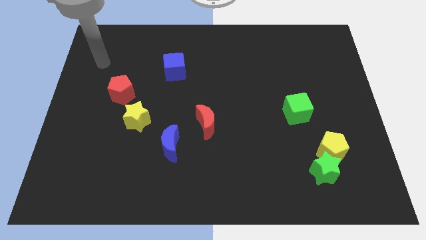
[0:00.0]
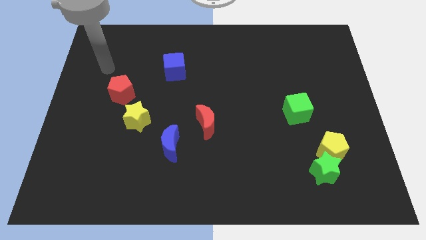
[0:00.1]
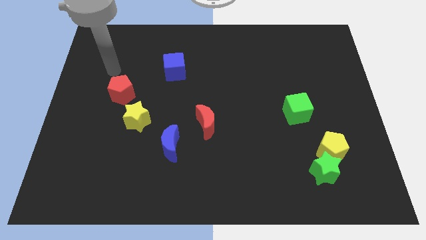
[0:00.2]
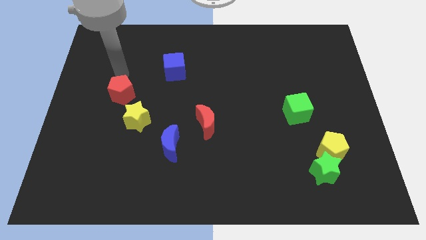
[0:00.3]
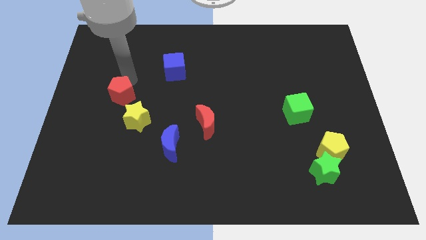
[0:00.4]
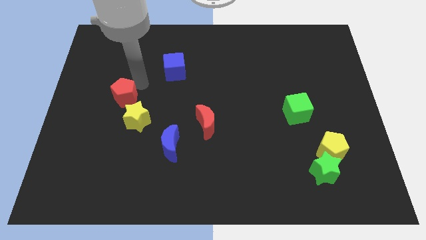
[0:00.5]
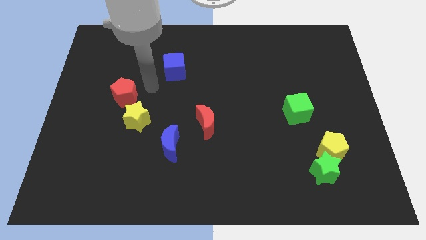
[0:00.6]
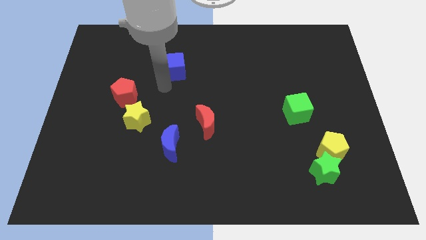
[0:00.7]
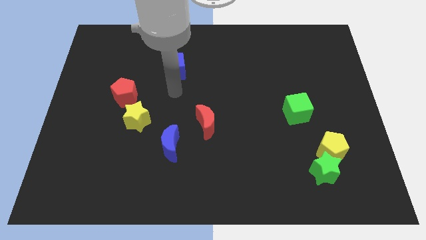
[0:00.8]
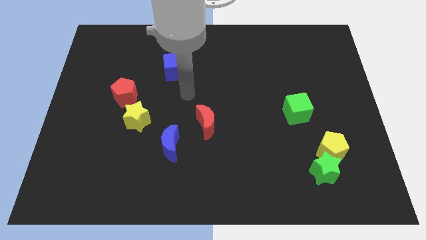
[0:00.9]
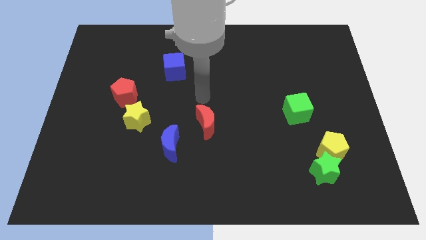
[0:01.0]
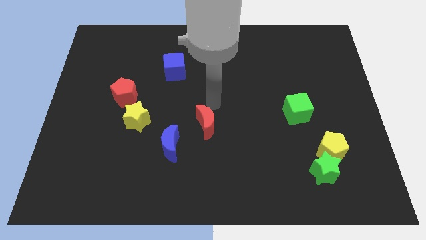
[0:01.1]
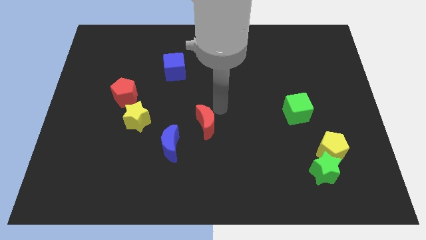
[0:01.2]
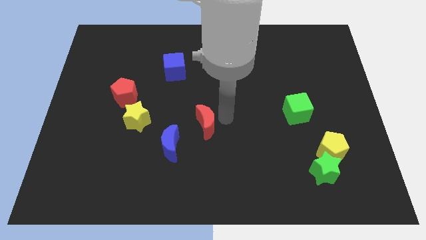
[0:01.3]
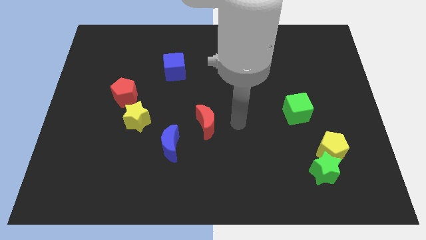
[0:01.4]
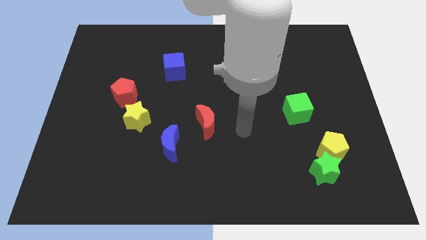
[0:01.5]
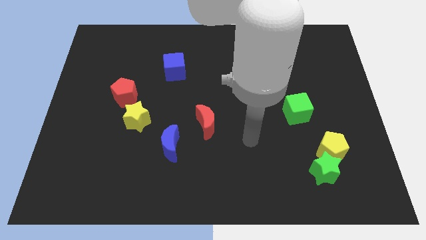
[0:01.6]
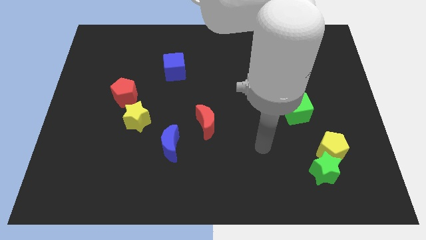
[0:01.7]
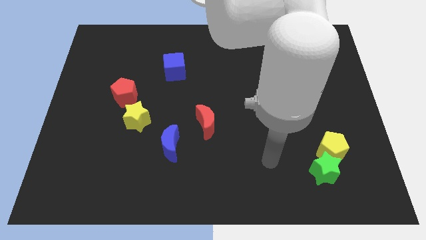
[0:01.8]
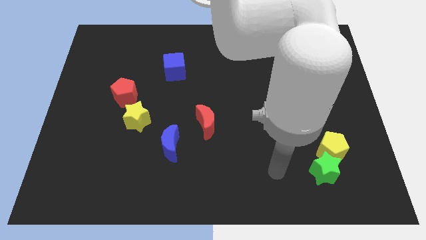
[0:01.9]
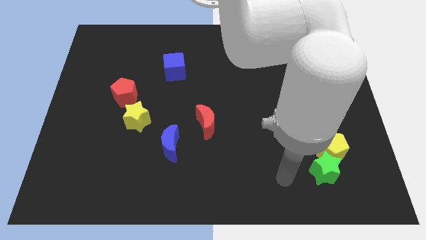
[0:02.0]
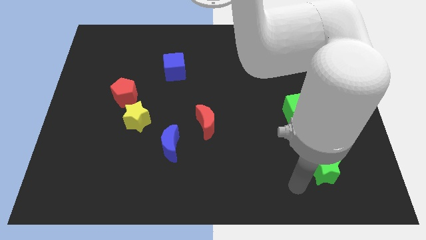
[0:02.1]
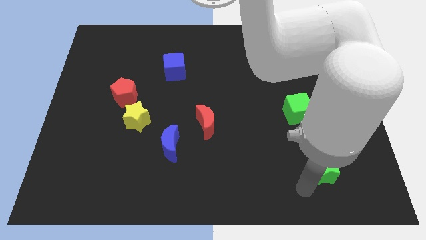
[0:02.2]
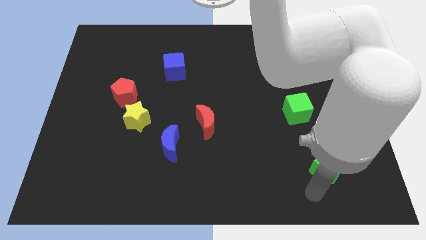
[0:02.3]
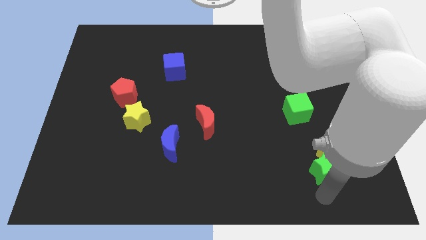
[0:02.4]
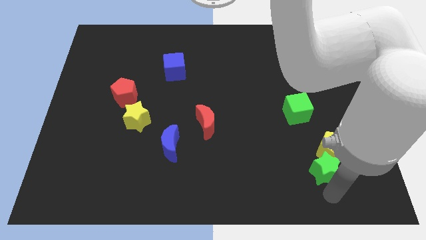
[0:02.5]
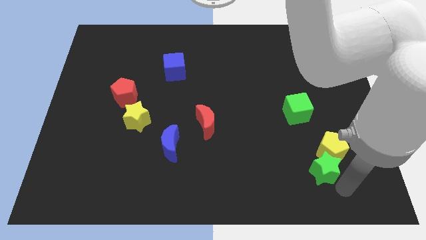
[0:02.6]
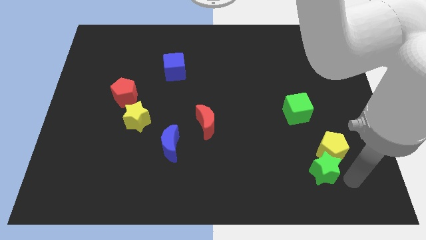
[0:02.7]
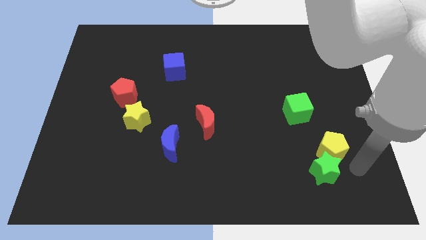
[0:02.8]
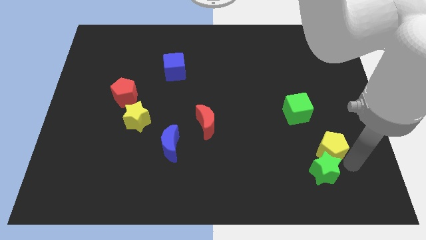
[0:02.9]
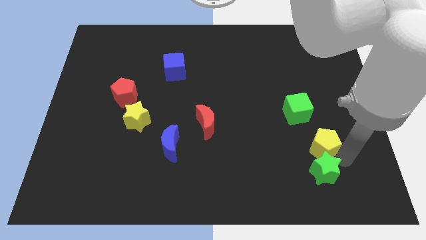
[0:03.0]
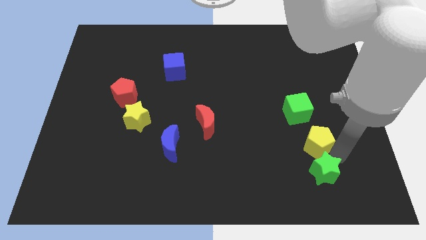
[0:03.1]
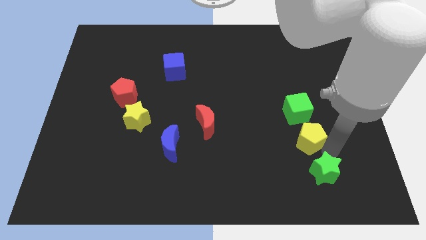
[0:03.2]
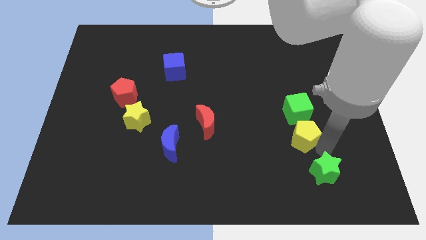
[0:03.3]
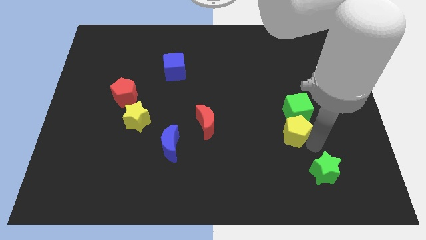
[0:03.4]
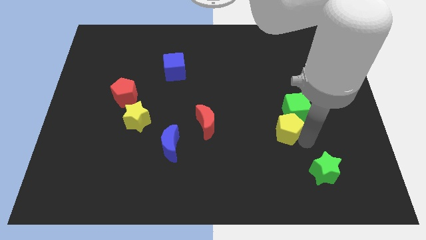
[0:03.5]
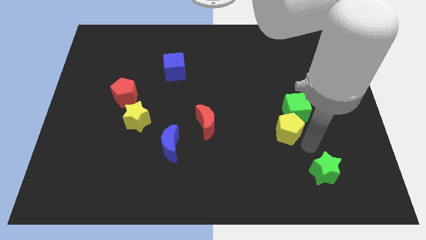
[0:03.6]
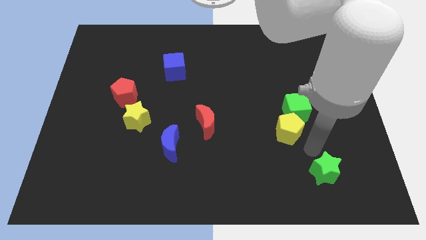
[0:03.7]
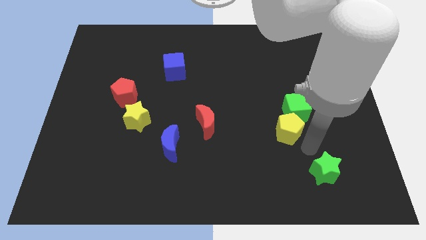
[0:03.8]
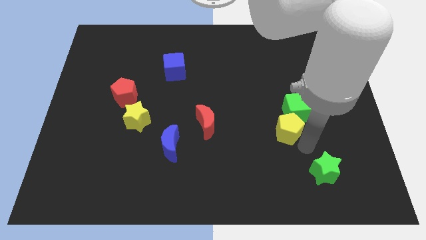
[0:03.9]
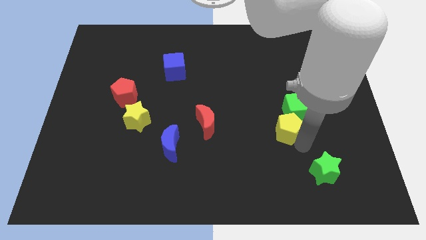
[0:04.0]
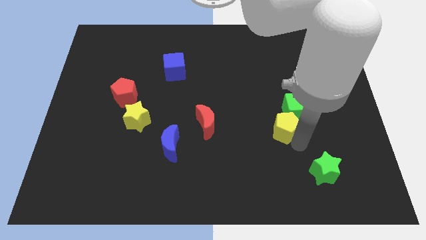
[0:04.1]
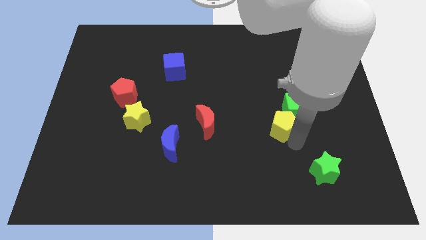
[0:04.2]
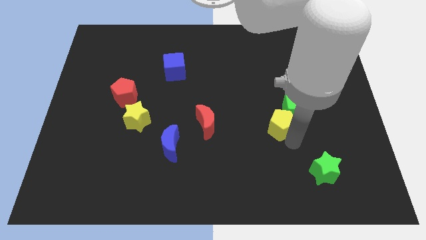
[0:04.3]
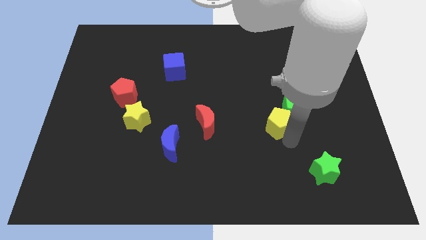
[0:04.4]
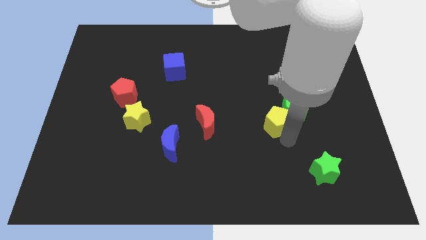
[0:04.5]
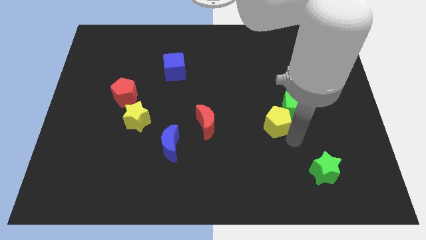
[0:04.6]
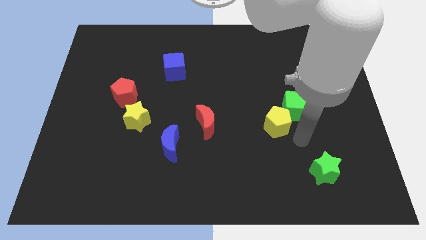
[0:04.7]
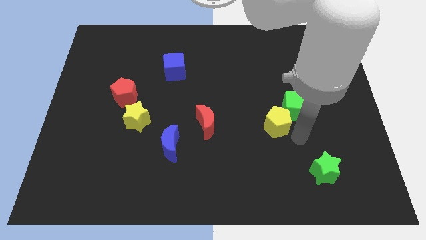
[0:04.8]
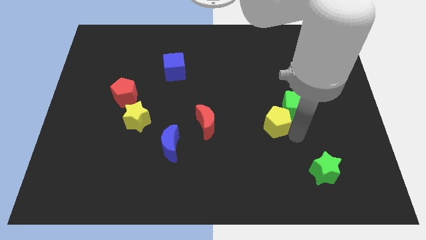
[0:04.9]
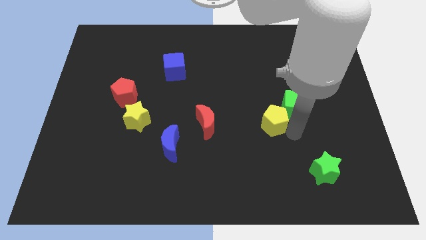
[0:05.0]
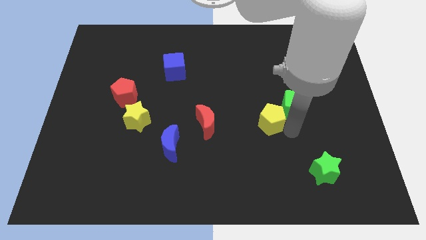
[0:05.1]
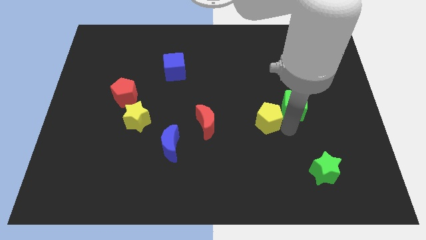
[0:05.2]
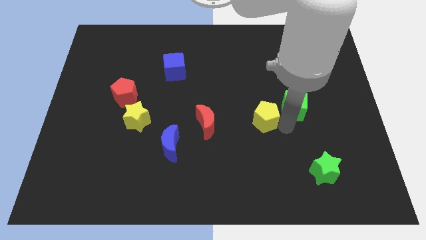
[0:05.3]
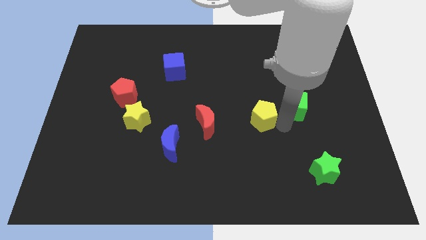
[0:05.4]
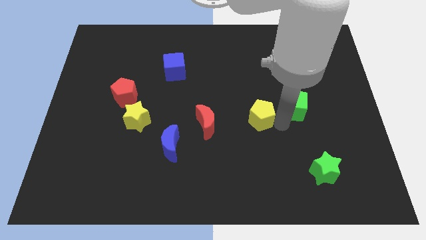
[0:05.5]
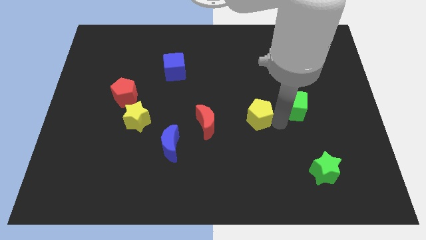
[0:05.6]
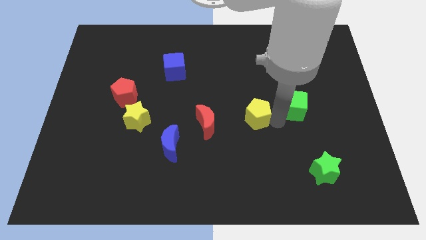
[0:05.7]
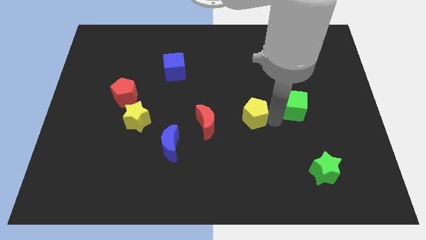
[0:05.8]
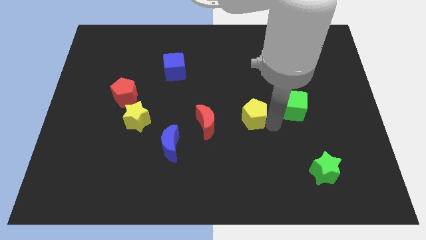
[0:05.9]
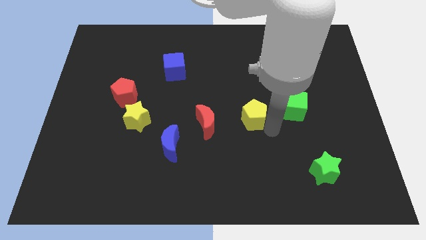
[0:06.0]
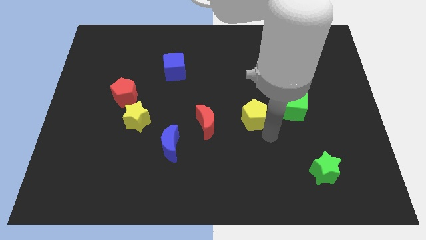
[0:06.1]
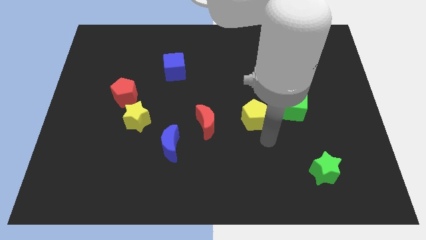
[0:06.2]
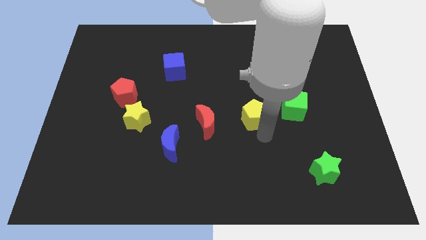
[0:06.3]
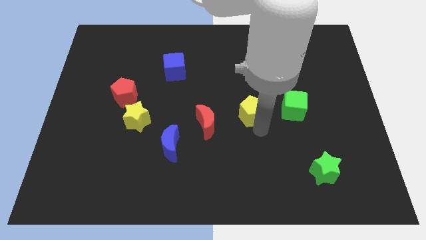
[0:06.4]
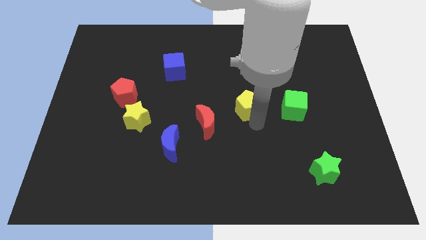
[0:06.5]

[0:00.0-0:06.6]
move the yellow pentagon upwards and left diagonally

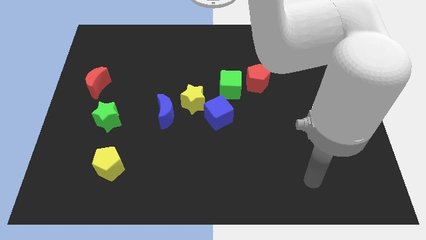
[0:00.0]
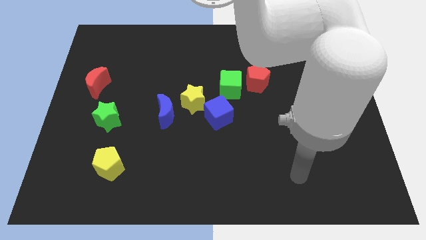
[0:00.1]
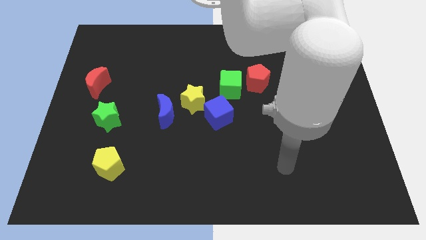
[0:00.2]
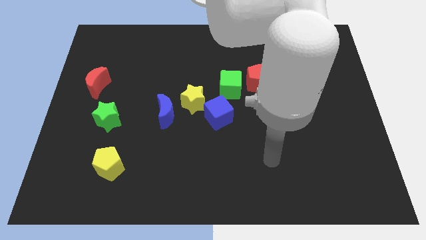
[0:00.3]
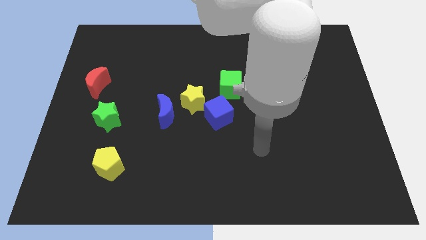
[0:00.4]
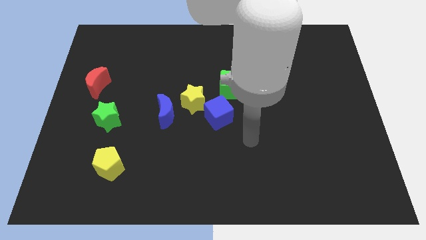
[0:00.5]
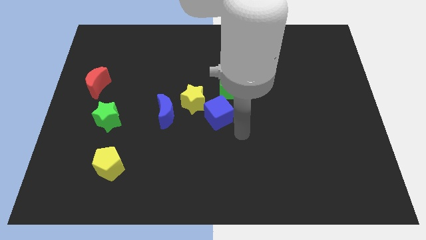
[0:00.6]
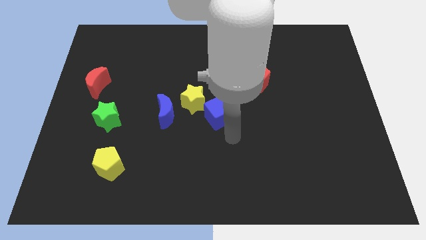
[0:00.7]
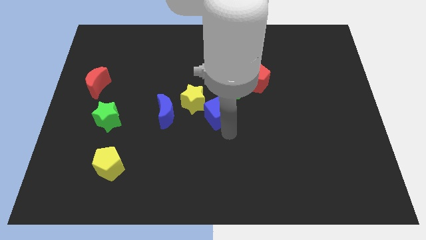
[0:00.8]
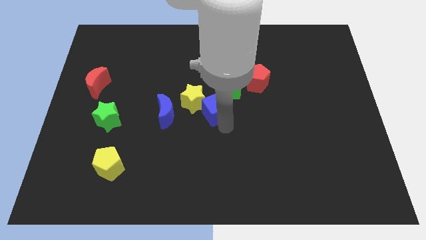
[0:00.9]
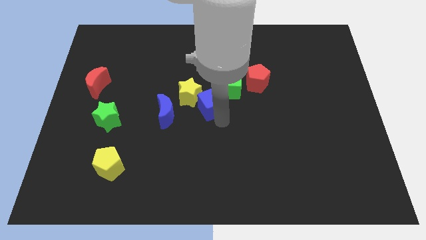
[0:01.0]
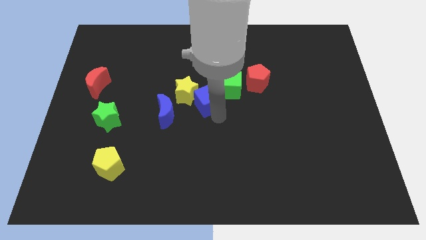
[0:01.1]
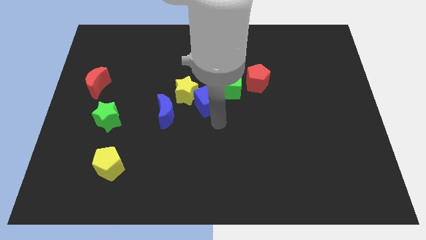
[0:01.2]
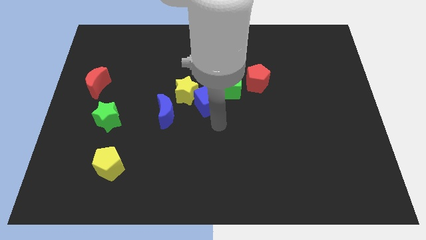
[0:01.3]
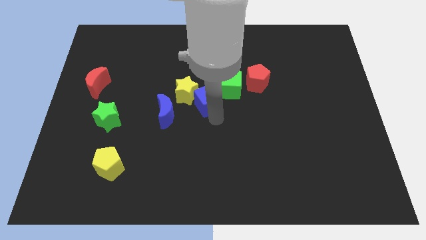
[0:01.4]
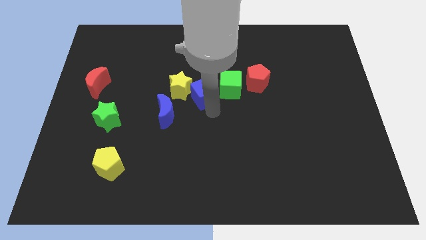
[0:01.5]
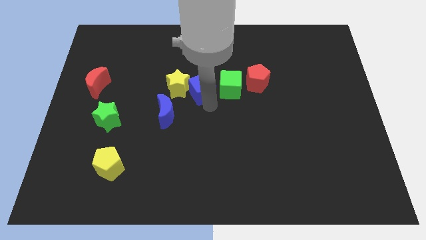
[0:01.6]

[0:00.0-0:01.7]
move the blue cube up and to the left somewhat
